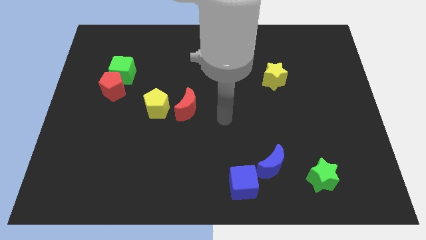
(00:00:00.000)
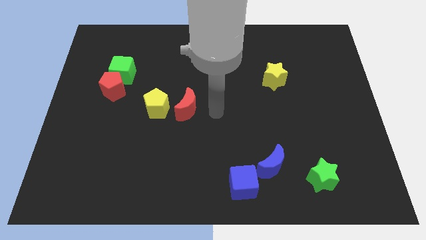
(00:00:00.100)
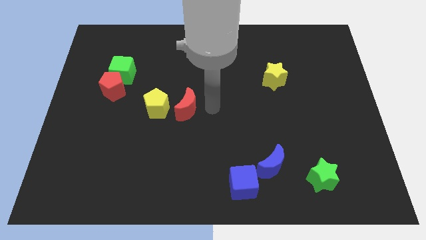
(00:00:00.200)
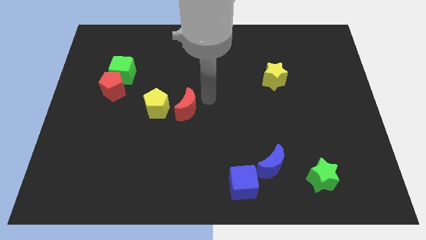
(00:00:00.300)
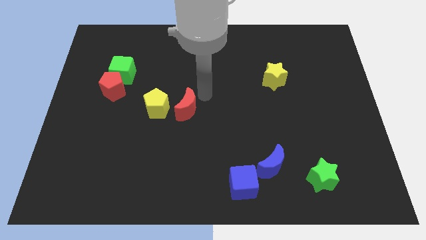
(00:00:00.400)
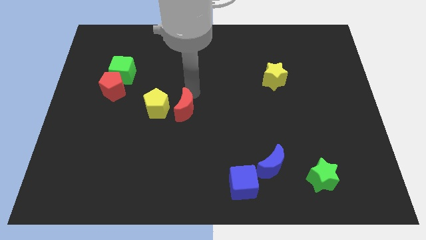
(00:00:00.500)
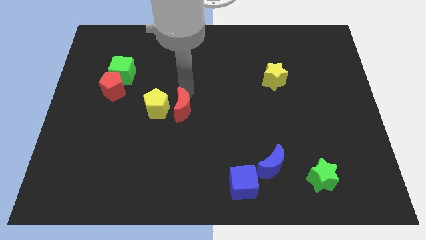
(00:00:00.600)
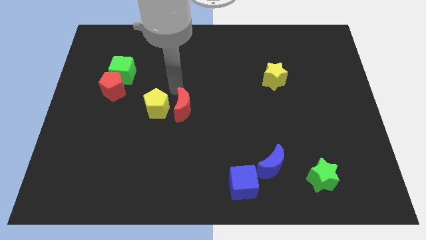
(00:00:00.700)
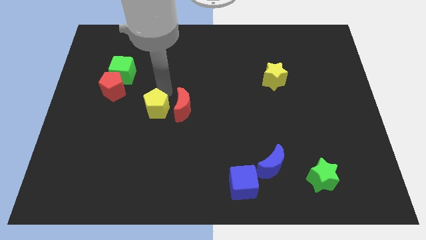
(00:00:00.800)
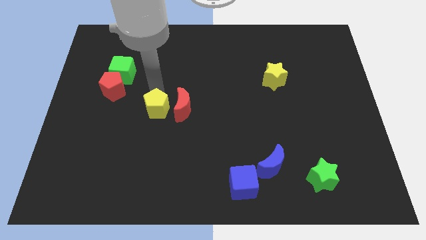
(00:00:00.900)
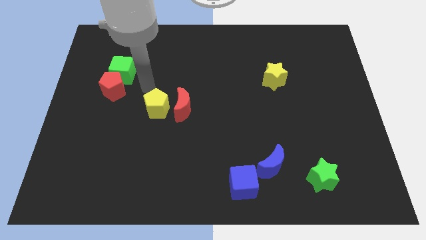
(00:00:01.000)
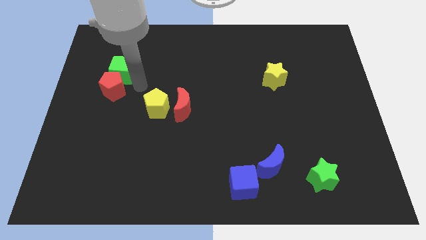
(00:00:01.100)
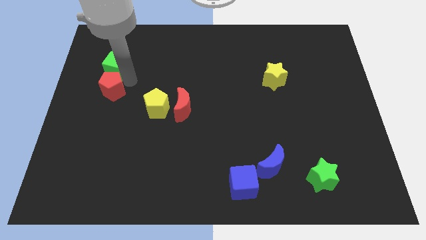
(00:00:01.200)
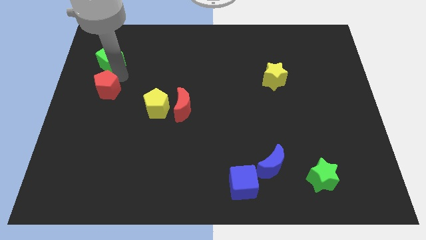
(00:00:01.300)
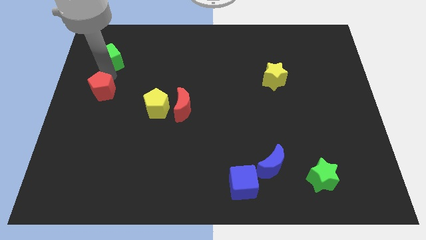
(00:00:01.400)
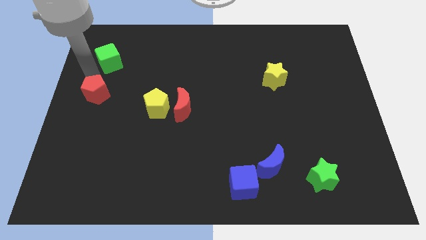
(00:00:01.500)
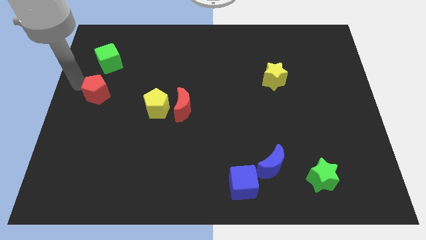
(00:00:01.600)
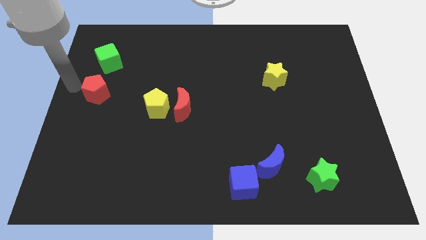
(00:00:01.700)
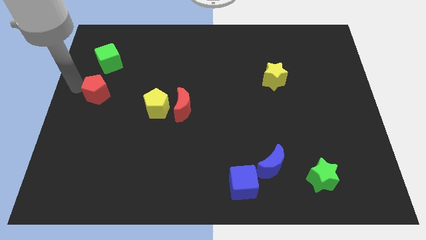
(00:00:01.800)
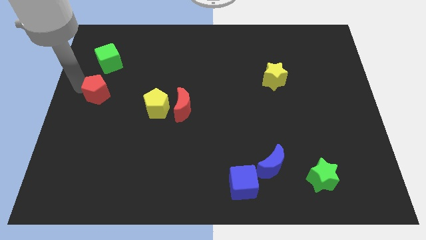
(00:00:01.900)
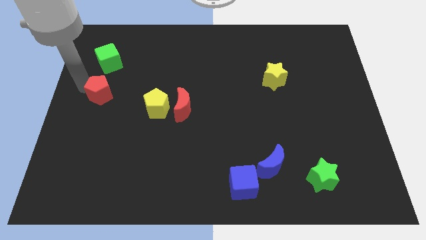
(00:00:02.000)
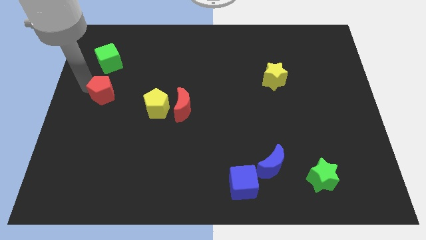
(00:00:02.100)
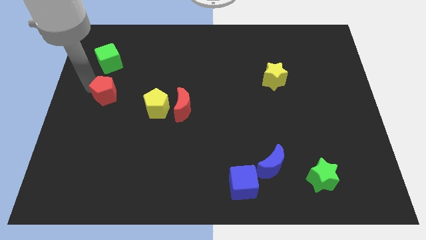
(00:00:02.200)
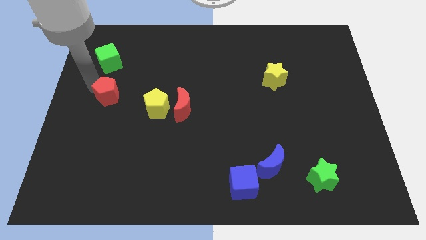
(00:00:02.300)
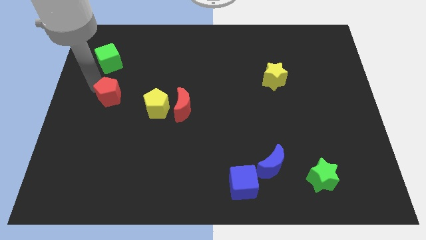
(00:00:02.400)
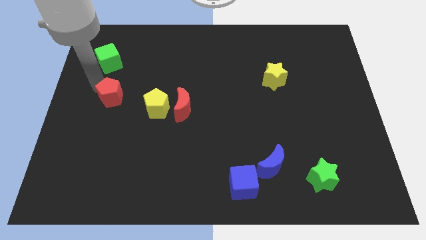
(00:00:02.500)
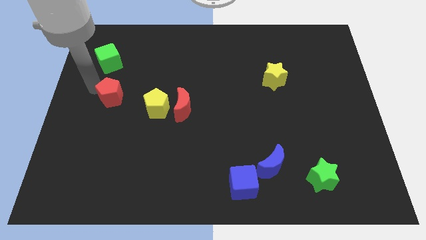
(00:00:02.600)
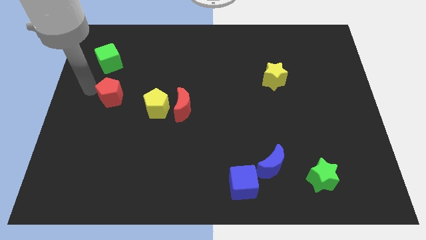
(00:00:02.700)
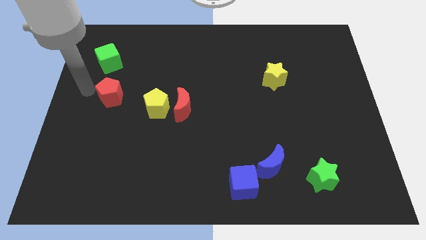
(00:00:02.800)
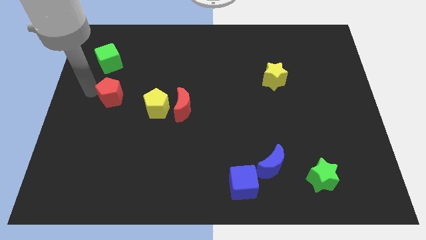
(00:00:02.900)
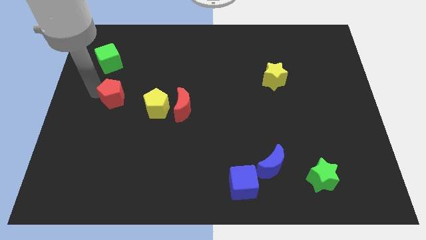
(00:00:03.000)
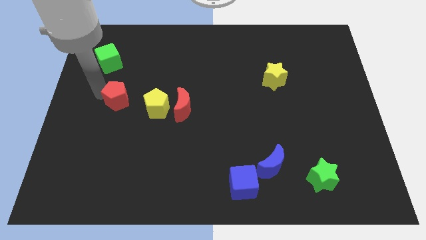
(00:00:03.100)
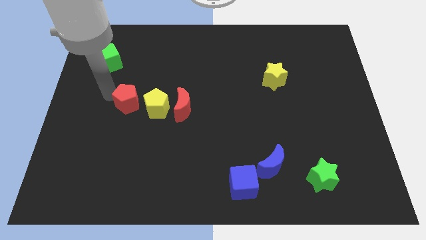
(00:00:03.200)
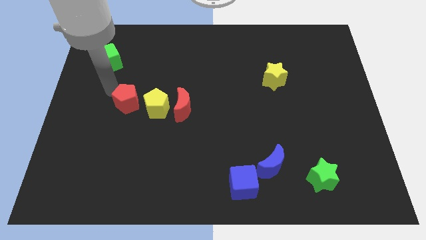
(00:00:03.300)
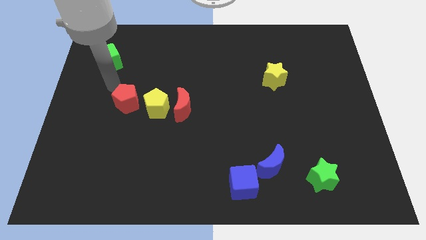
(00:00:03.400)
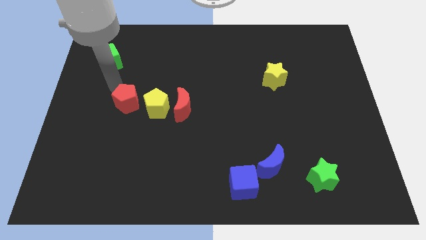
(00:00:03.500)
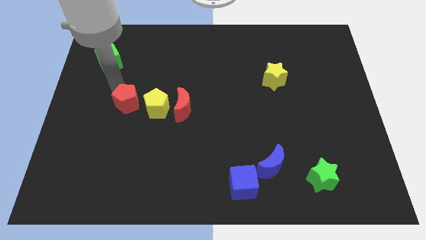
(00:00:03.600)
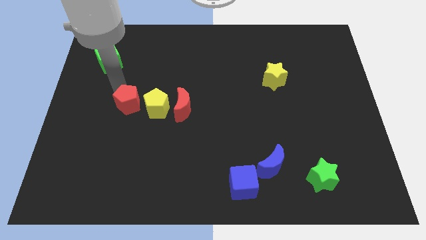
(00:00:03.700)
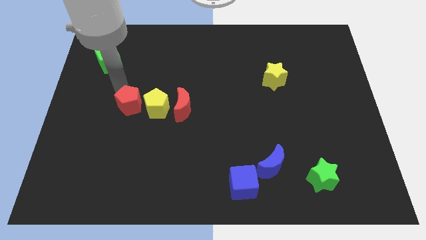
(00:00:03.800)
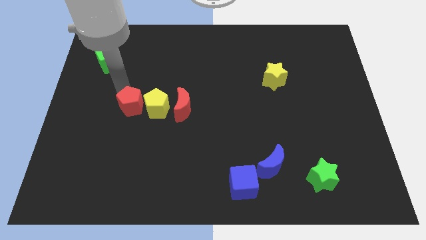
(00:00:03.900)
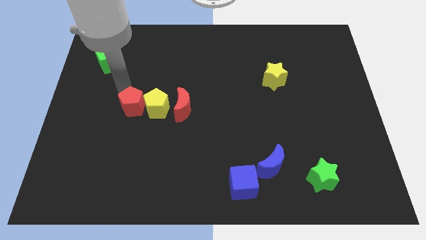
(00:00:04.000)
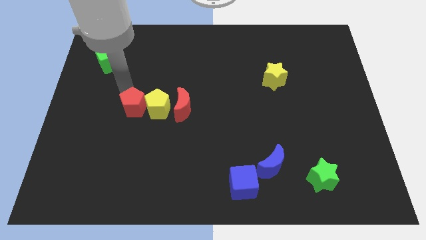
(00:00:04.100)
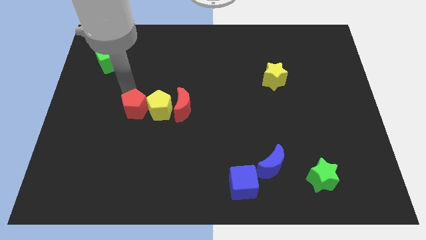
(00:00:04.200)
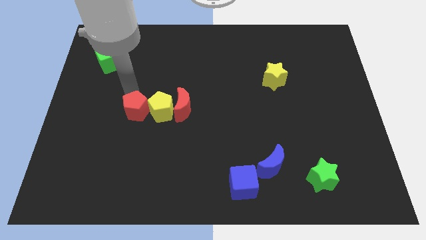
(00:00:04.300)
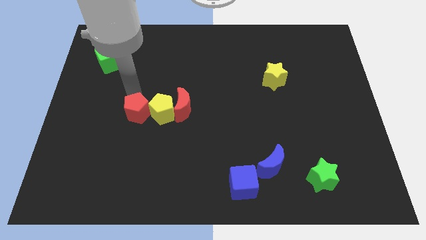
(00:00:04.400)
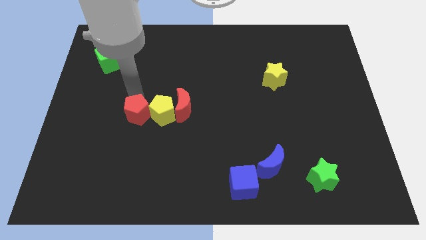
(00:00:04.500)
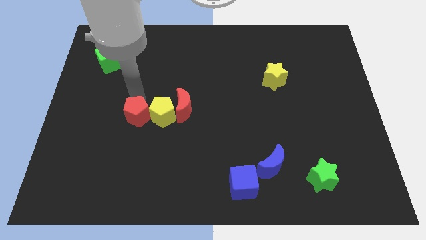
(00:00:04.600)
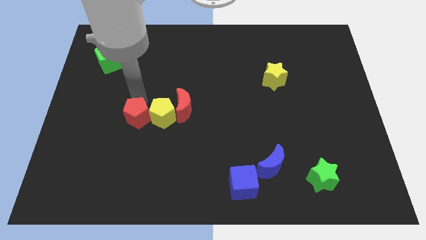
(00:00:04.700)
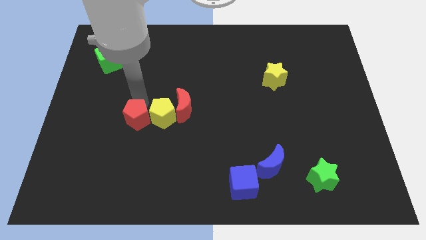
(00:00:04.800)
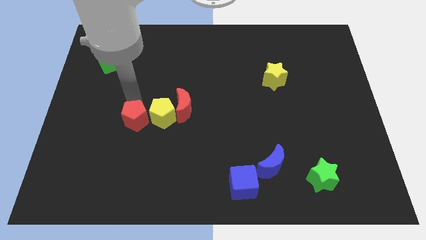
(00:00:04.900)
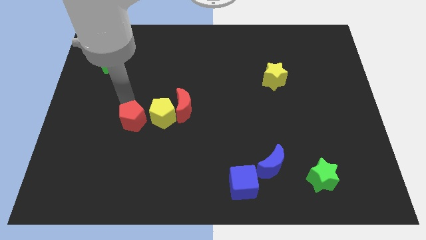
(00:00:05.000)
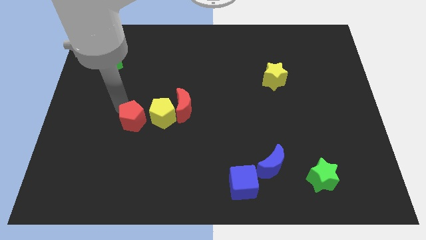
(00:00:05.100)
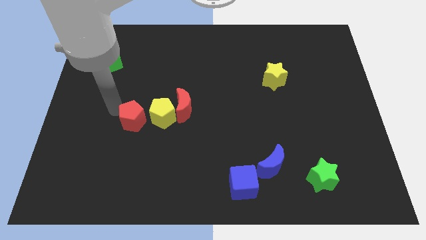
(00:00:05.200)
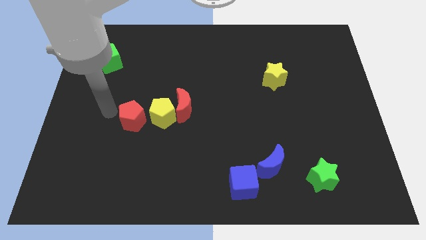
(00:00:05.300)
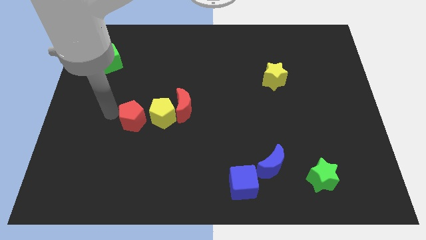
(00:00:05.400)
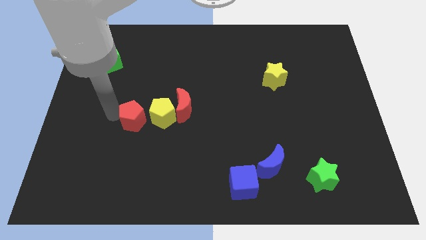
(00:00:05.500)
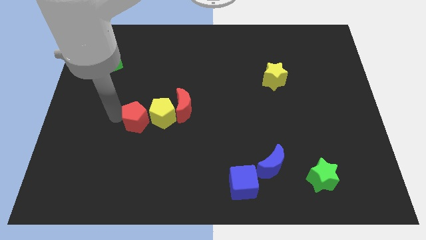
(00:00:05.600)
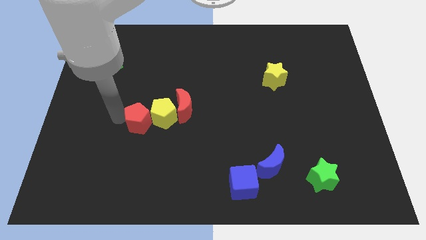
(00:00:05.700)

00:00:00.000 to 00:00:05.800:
push the red pentagon to the bottom left of the red moon
